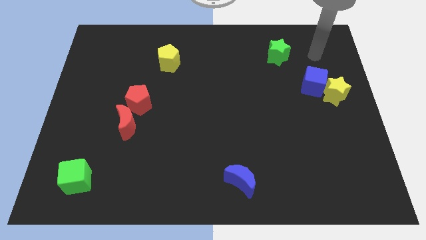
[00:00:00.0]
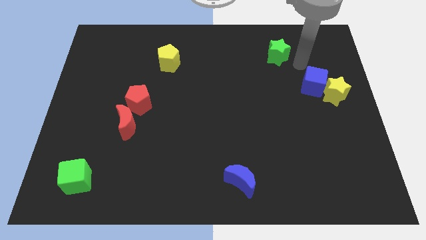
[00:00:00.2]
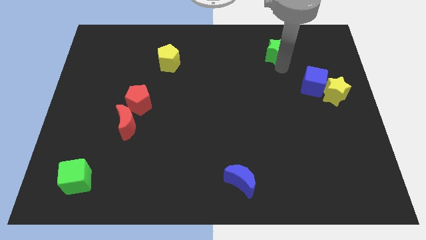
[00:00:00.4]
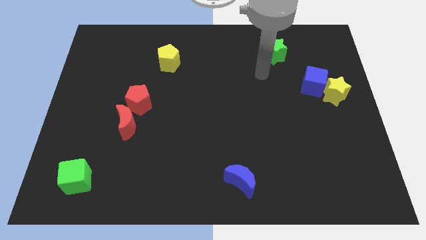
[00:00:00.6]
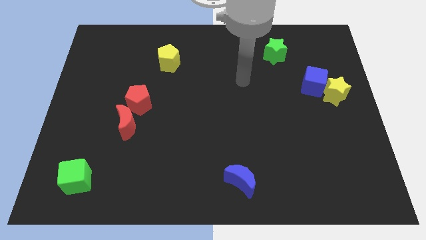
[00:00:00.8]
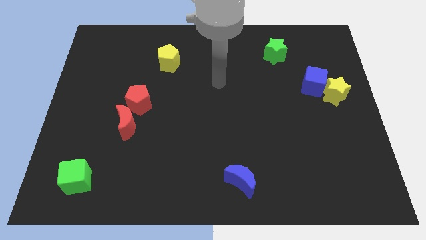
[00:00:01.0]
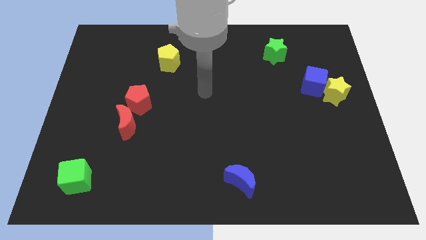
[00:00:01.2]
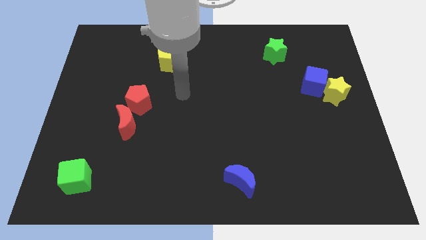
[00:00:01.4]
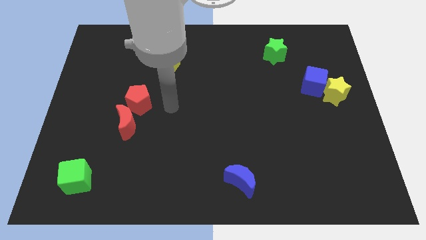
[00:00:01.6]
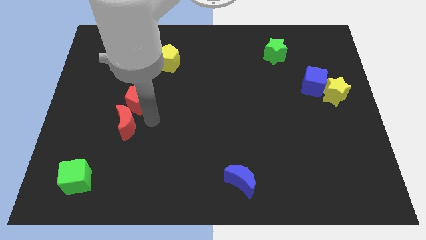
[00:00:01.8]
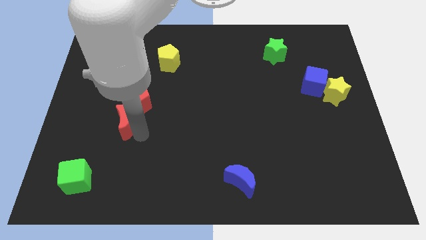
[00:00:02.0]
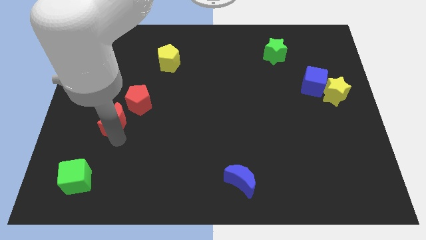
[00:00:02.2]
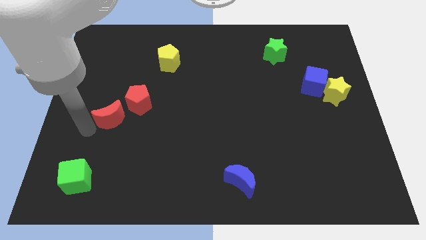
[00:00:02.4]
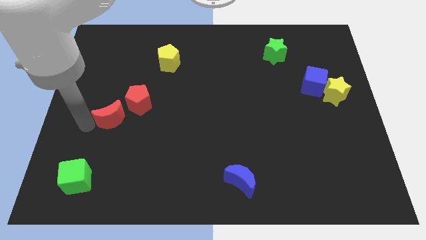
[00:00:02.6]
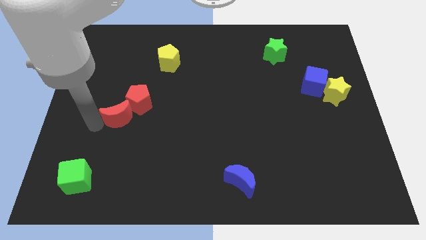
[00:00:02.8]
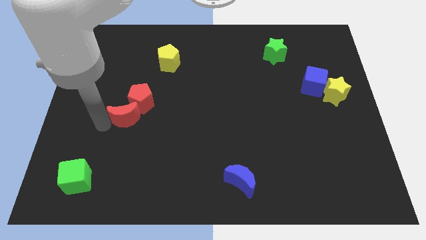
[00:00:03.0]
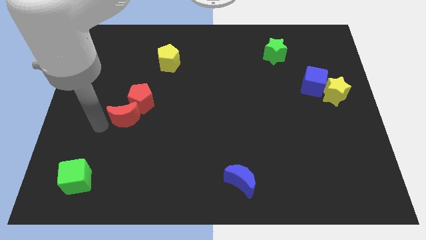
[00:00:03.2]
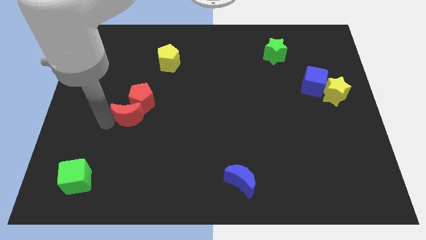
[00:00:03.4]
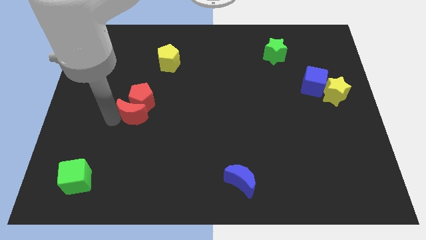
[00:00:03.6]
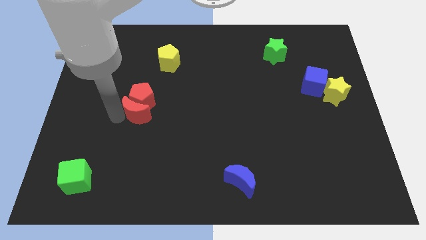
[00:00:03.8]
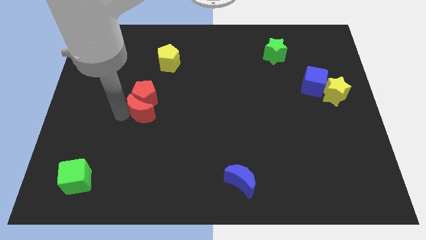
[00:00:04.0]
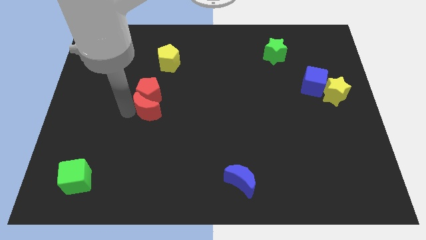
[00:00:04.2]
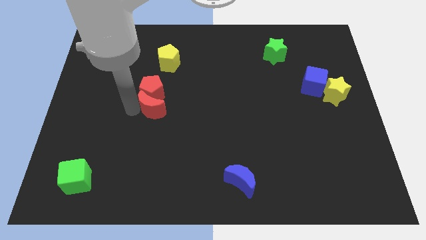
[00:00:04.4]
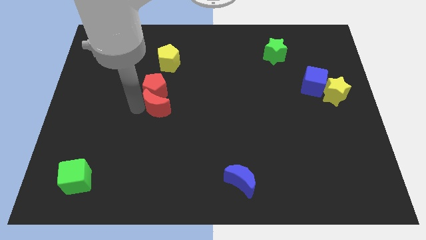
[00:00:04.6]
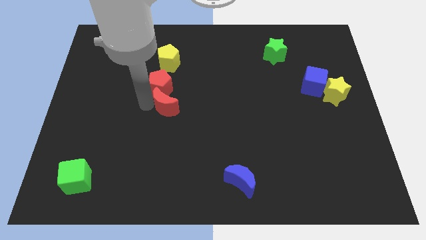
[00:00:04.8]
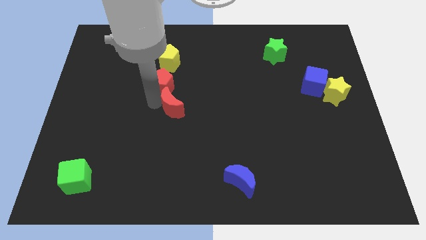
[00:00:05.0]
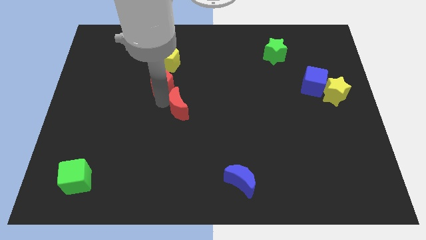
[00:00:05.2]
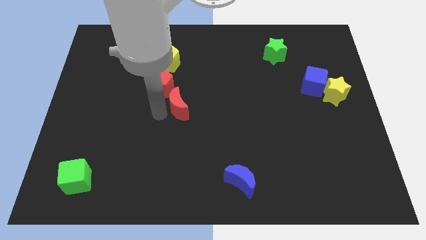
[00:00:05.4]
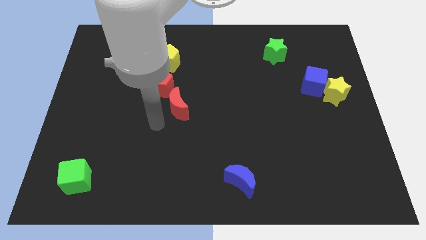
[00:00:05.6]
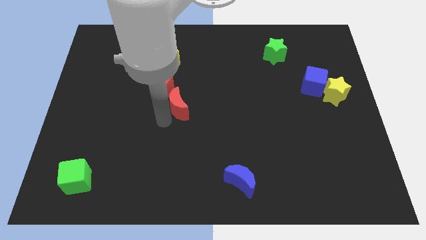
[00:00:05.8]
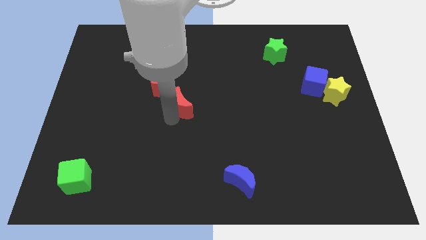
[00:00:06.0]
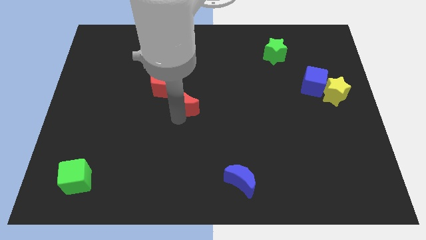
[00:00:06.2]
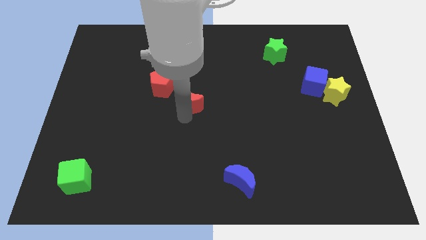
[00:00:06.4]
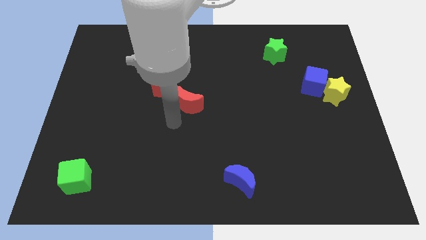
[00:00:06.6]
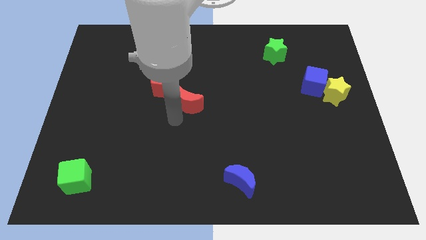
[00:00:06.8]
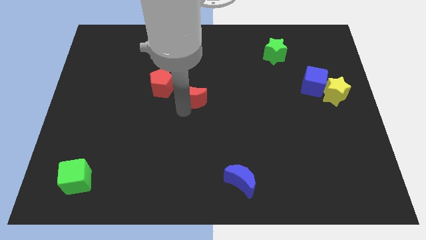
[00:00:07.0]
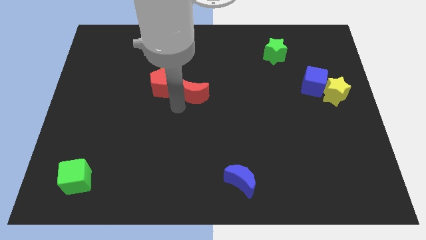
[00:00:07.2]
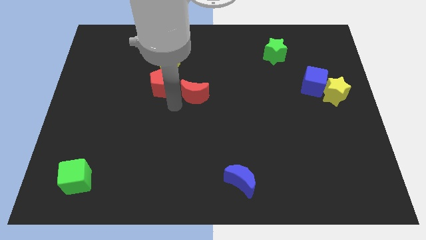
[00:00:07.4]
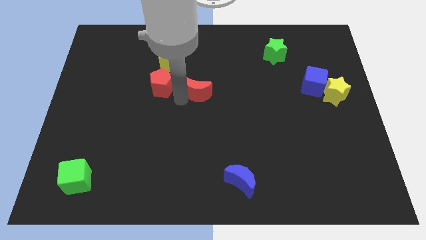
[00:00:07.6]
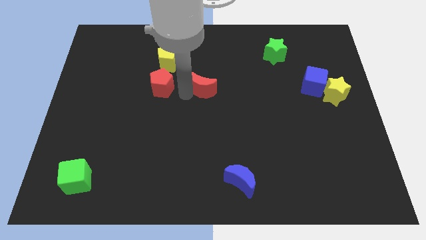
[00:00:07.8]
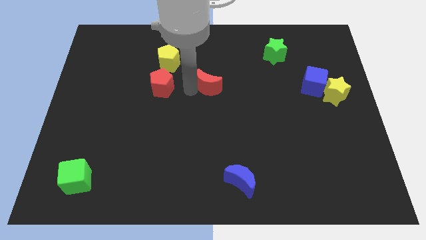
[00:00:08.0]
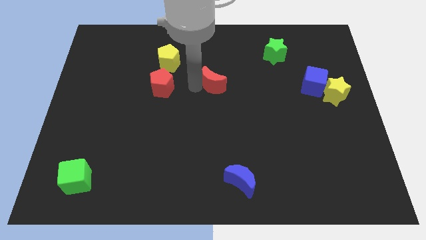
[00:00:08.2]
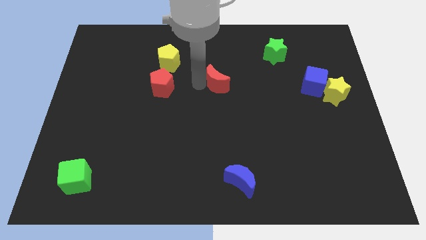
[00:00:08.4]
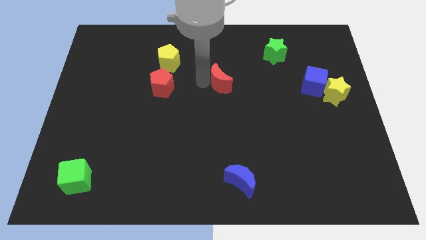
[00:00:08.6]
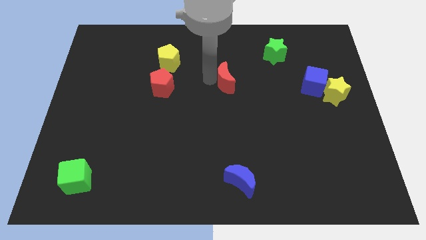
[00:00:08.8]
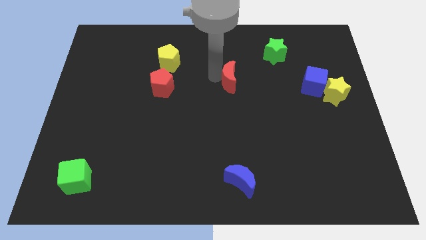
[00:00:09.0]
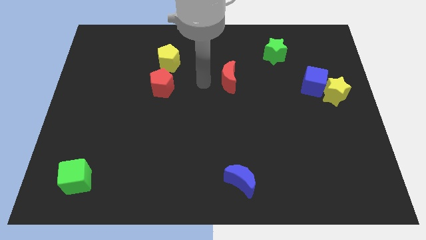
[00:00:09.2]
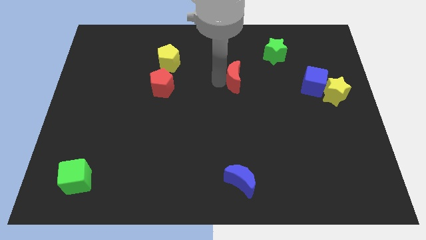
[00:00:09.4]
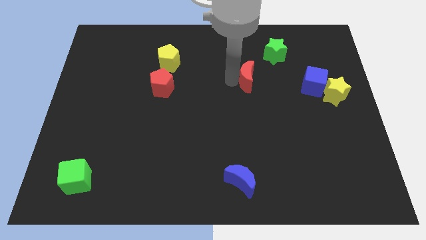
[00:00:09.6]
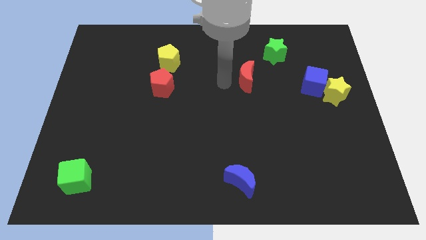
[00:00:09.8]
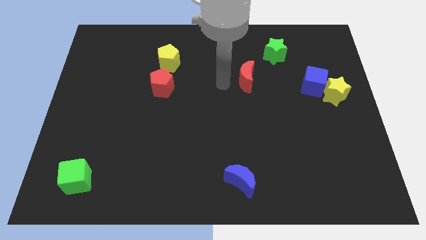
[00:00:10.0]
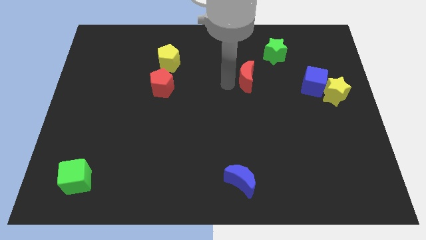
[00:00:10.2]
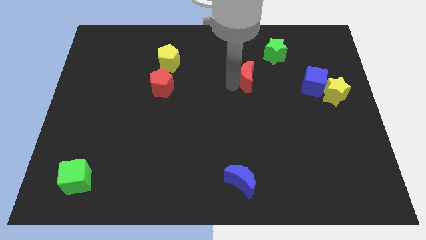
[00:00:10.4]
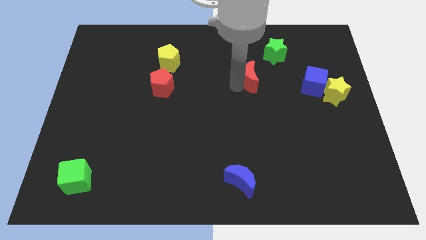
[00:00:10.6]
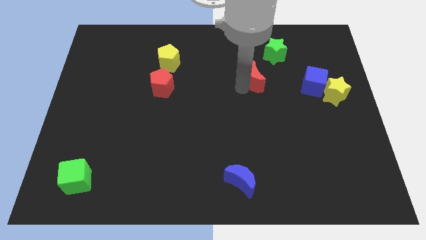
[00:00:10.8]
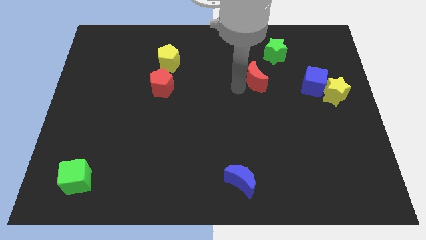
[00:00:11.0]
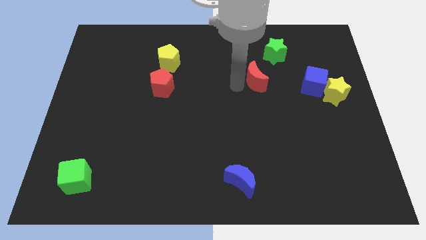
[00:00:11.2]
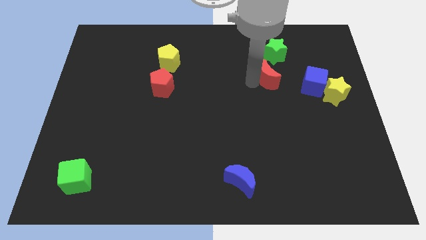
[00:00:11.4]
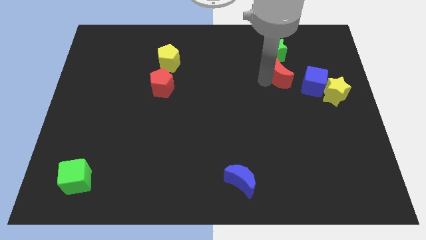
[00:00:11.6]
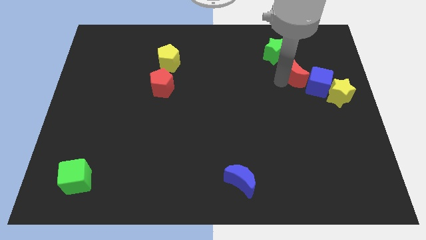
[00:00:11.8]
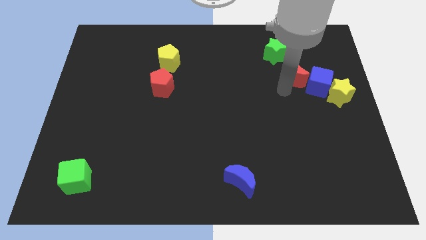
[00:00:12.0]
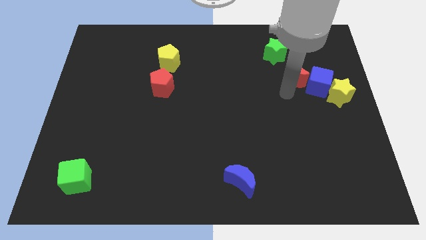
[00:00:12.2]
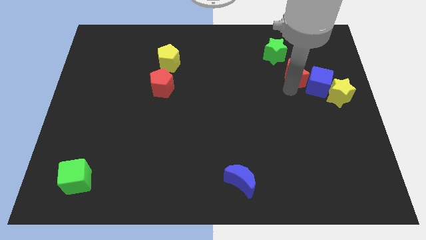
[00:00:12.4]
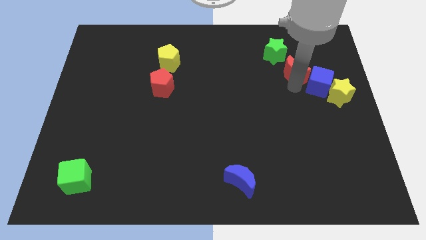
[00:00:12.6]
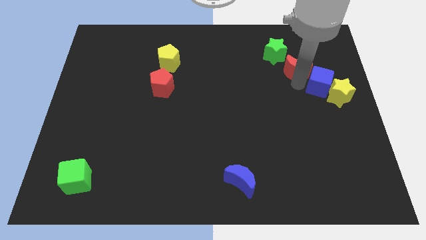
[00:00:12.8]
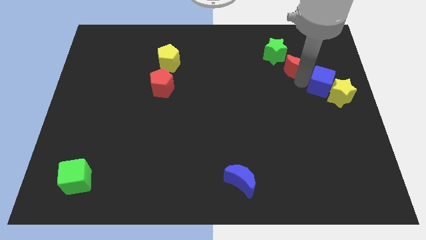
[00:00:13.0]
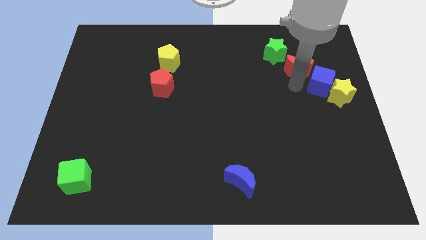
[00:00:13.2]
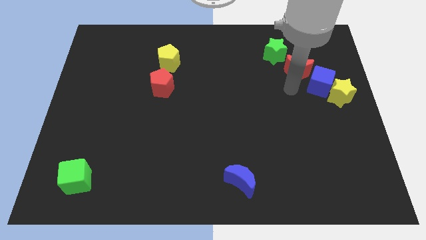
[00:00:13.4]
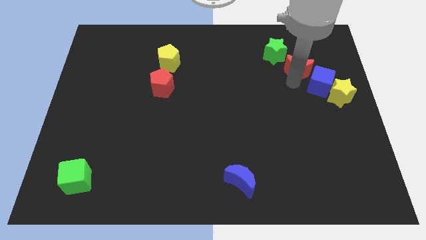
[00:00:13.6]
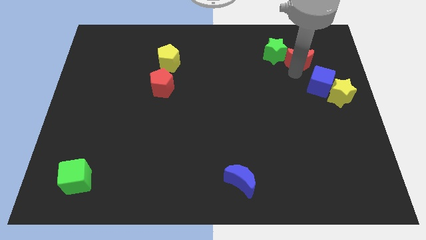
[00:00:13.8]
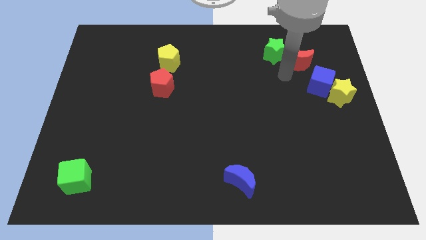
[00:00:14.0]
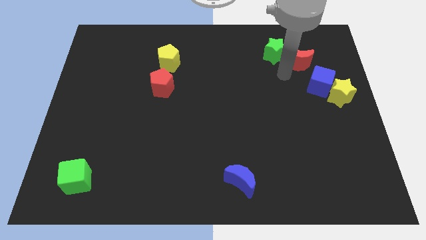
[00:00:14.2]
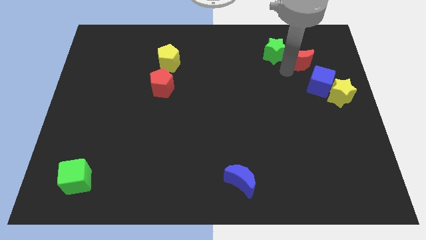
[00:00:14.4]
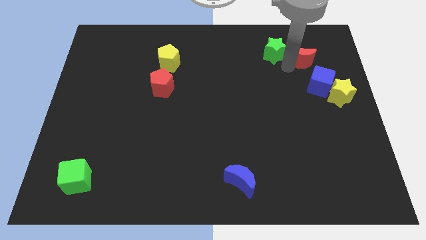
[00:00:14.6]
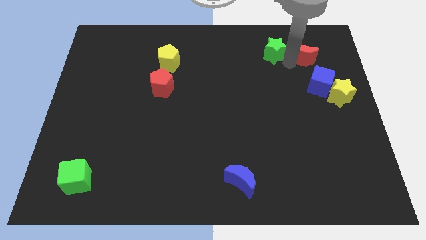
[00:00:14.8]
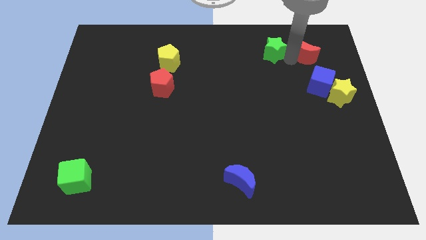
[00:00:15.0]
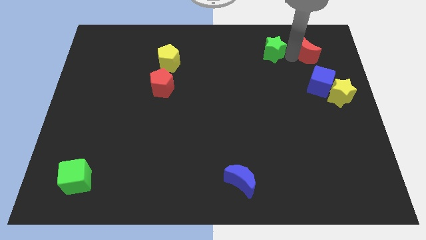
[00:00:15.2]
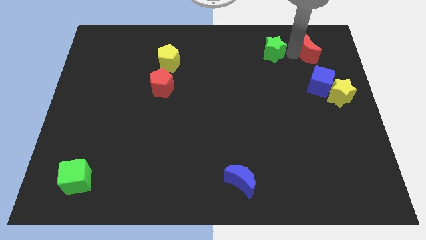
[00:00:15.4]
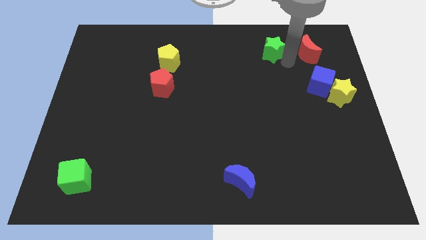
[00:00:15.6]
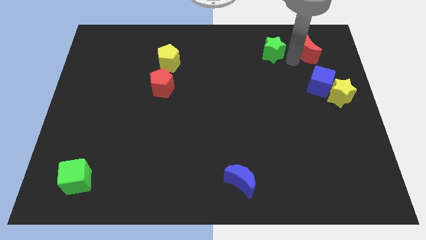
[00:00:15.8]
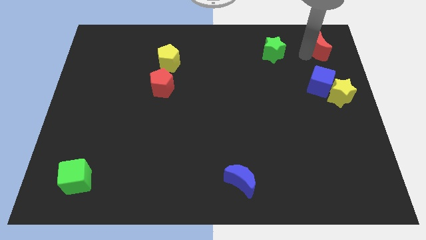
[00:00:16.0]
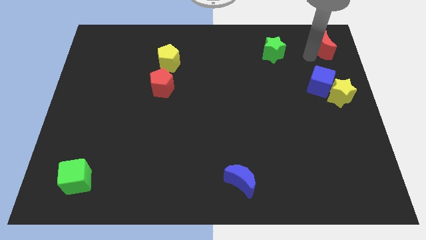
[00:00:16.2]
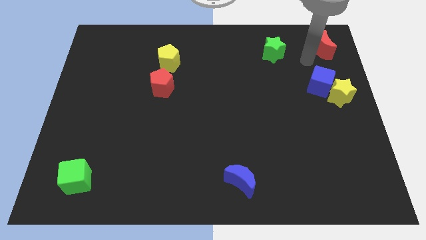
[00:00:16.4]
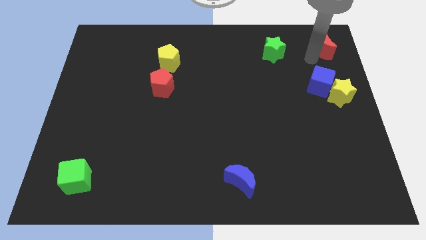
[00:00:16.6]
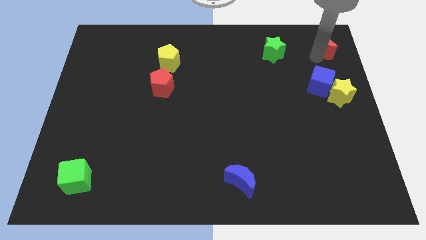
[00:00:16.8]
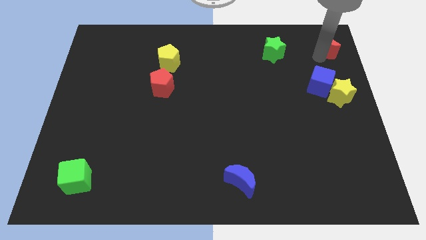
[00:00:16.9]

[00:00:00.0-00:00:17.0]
move the red moon to the top right of the board
